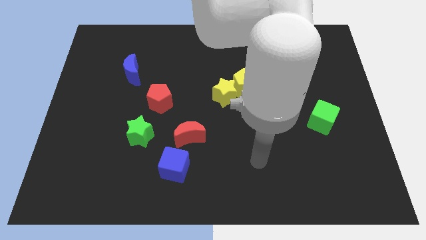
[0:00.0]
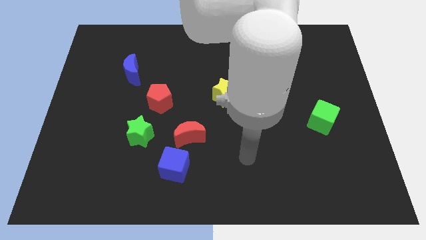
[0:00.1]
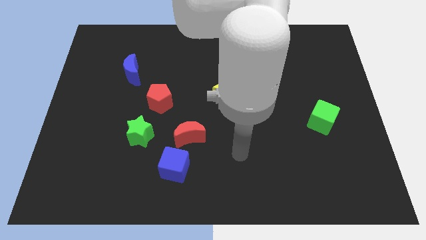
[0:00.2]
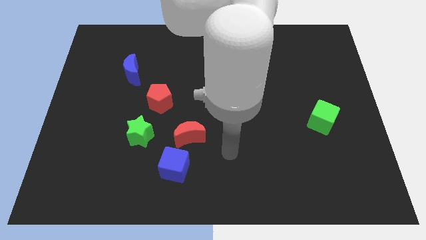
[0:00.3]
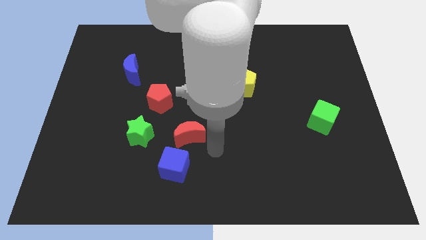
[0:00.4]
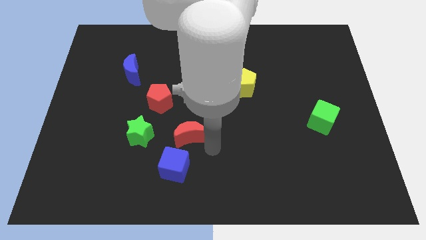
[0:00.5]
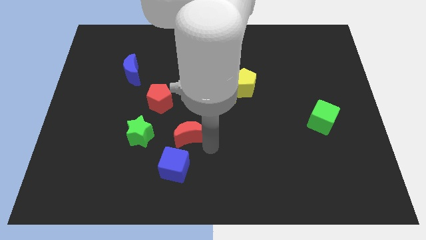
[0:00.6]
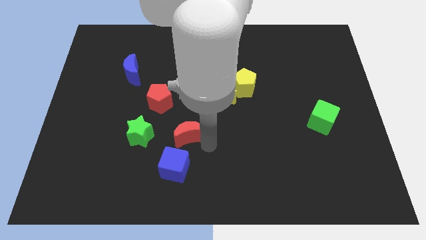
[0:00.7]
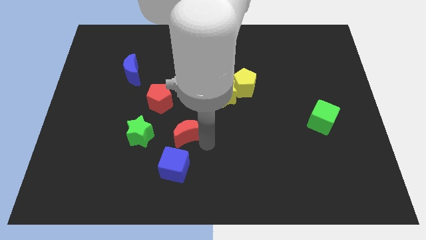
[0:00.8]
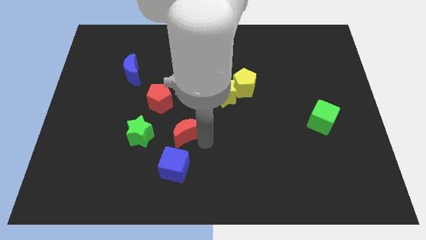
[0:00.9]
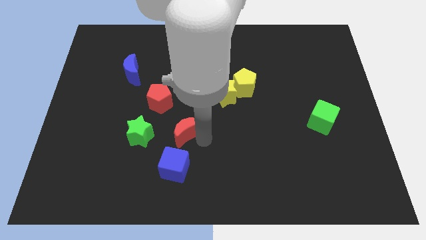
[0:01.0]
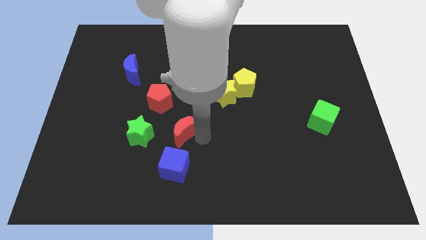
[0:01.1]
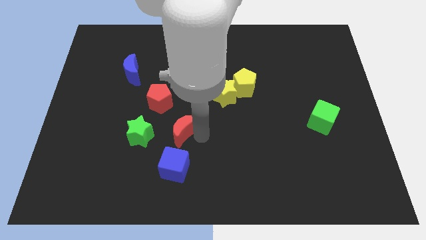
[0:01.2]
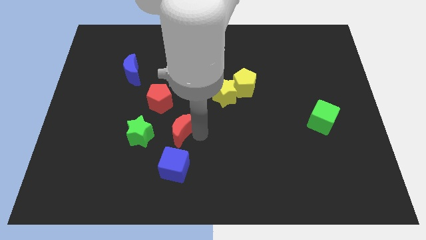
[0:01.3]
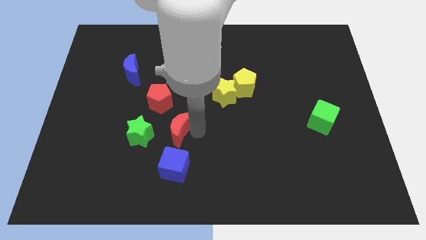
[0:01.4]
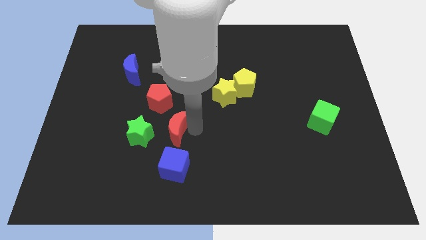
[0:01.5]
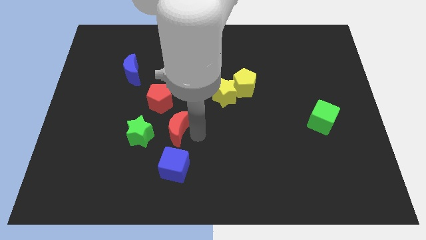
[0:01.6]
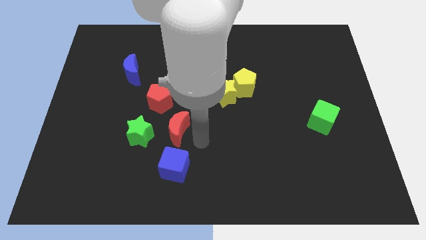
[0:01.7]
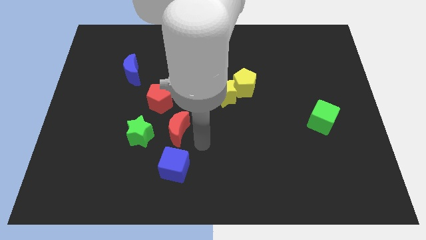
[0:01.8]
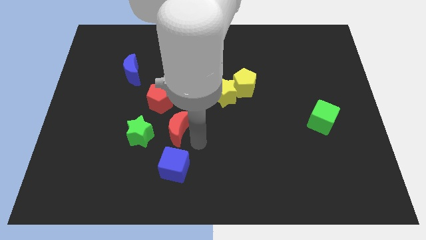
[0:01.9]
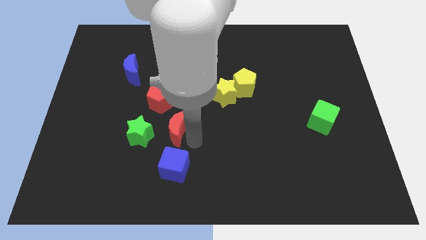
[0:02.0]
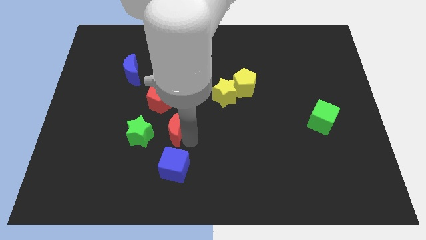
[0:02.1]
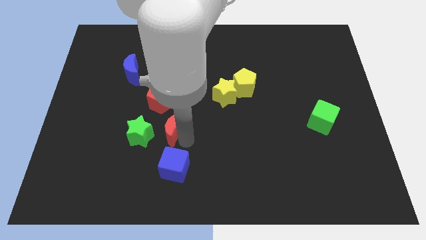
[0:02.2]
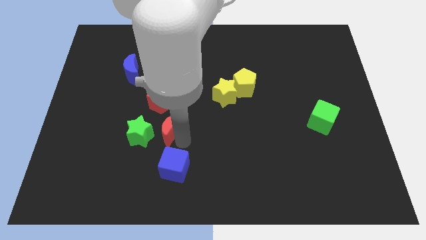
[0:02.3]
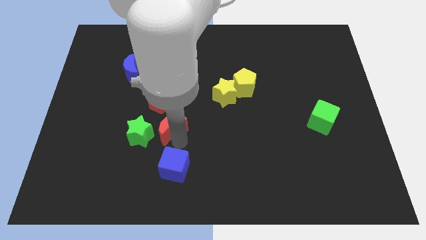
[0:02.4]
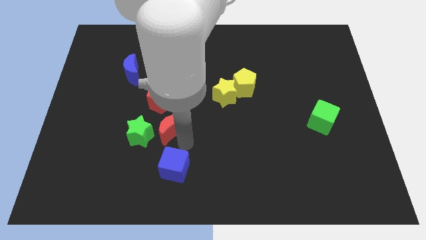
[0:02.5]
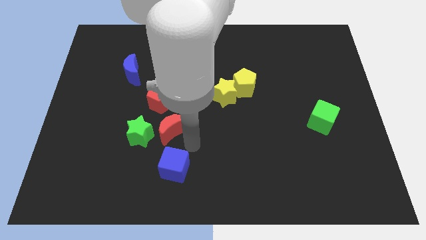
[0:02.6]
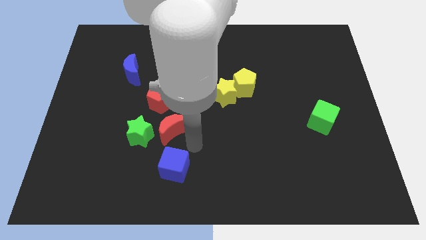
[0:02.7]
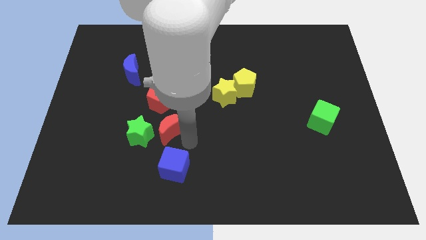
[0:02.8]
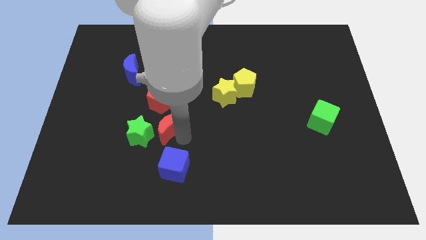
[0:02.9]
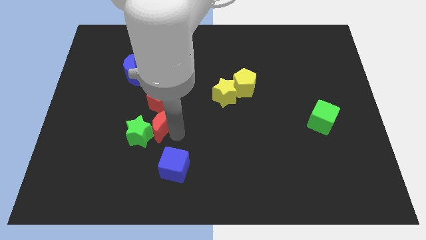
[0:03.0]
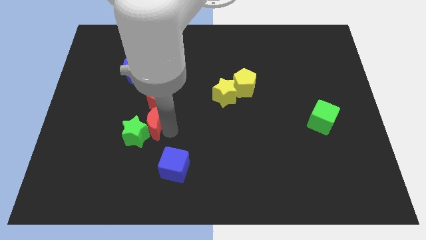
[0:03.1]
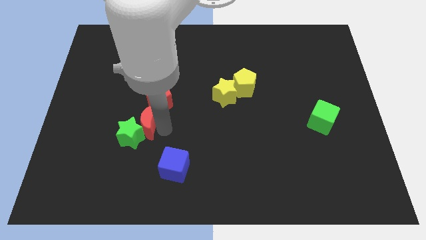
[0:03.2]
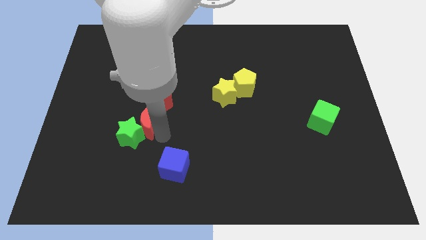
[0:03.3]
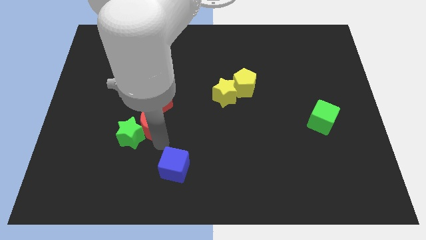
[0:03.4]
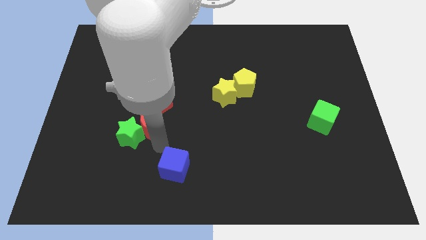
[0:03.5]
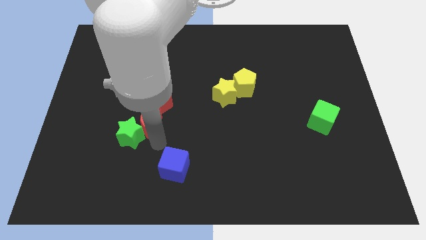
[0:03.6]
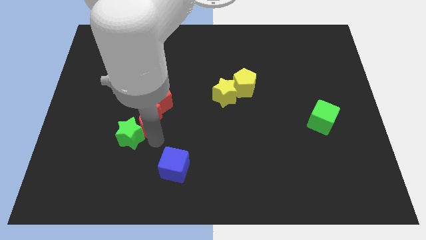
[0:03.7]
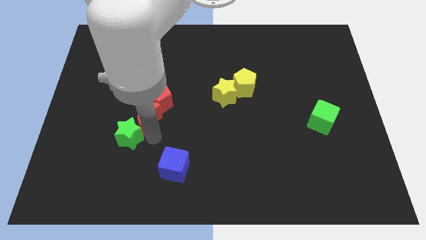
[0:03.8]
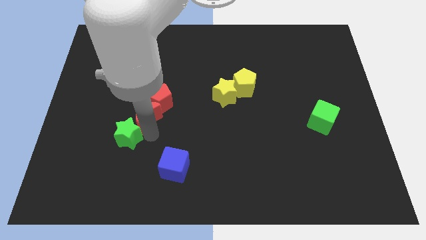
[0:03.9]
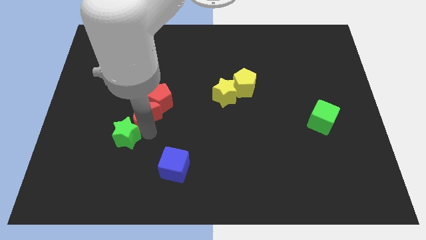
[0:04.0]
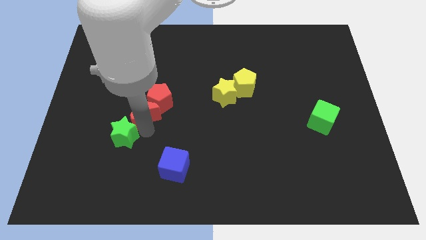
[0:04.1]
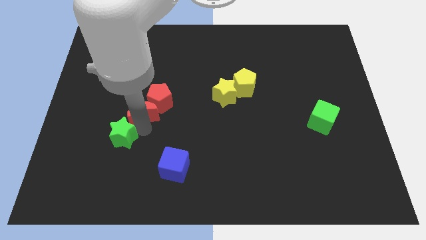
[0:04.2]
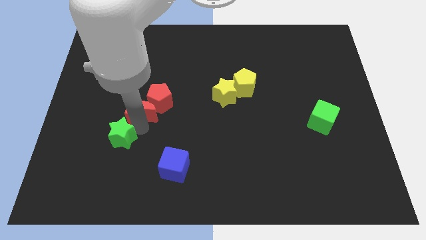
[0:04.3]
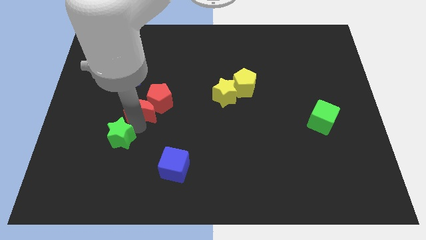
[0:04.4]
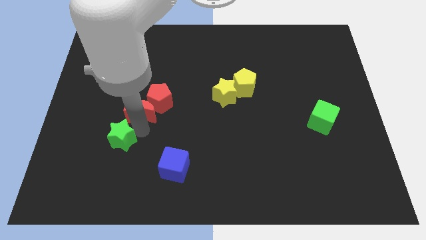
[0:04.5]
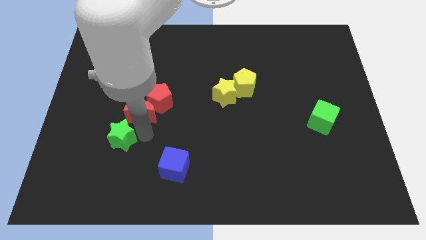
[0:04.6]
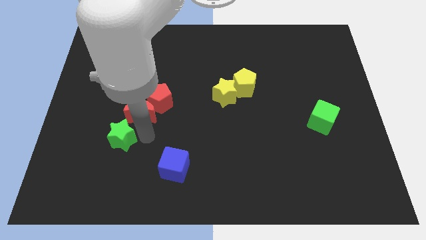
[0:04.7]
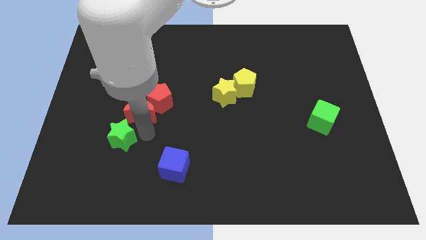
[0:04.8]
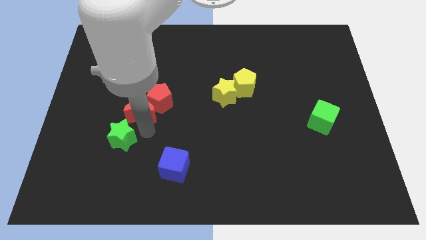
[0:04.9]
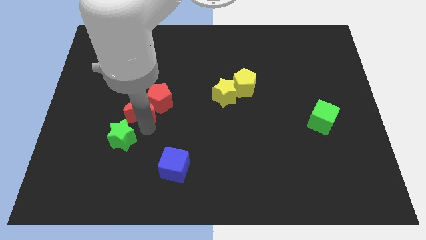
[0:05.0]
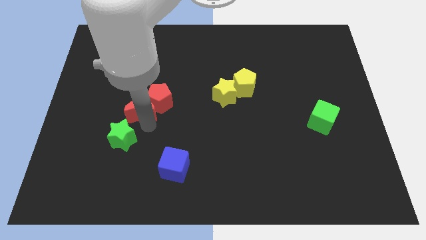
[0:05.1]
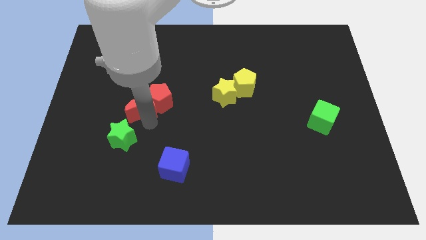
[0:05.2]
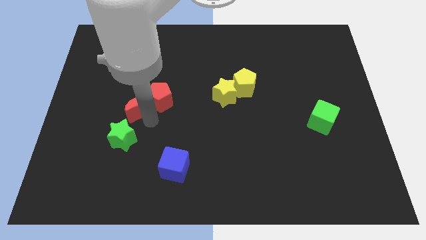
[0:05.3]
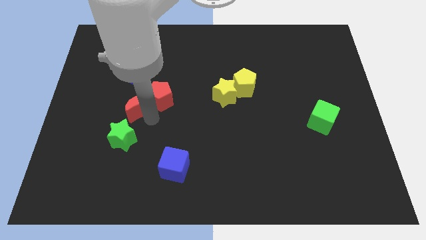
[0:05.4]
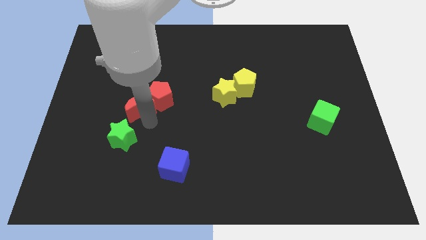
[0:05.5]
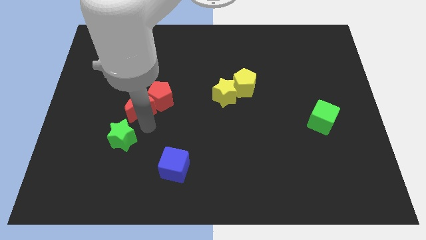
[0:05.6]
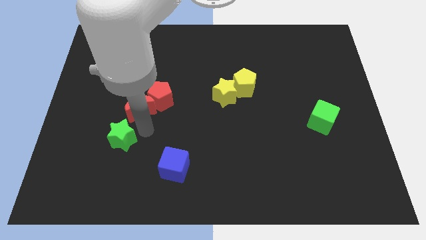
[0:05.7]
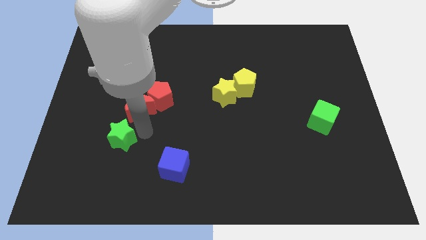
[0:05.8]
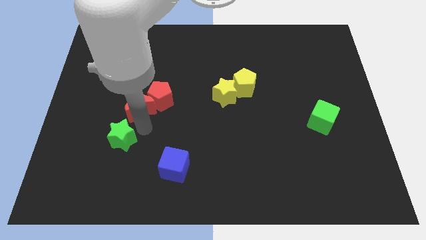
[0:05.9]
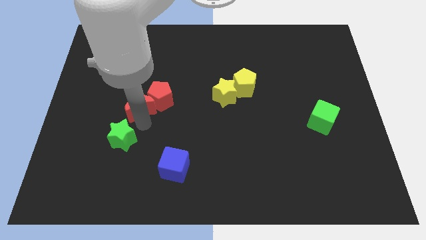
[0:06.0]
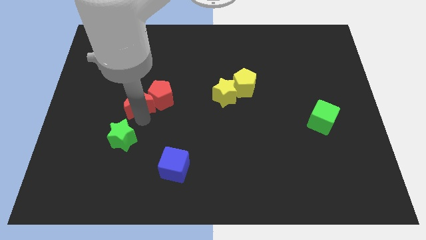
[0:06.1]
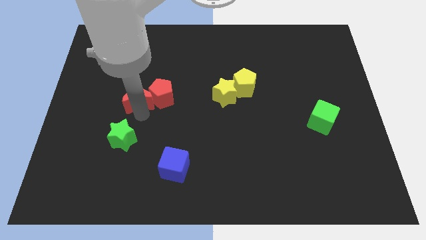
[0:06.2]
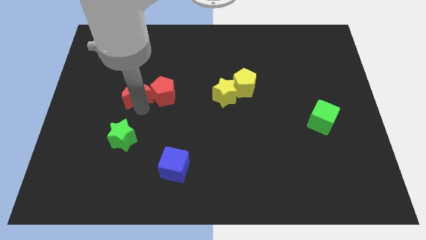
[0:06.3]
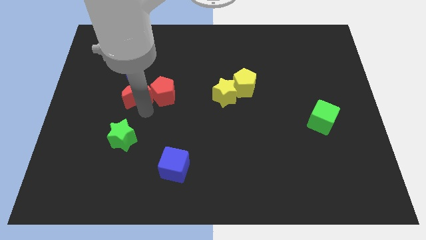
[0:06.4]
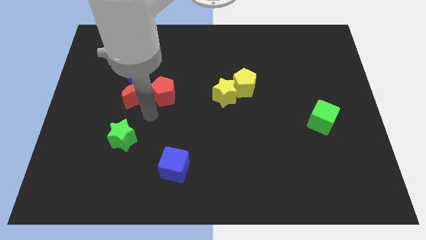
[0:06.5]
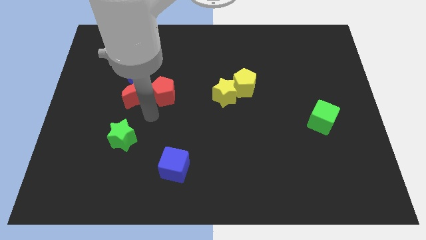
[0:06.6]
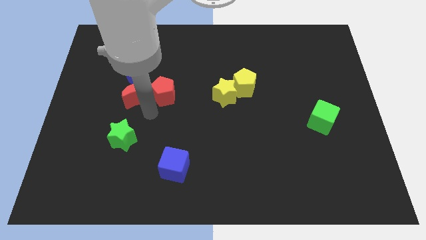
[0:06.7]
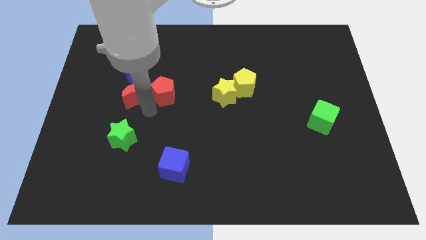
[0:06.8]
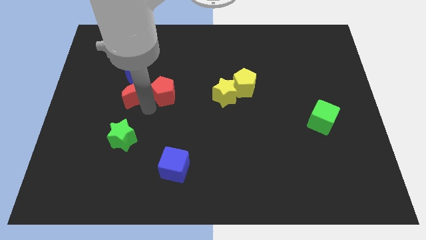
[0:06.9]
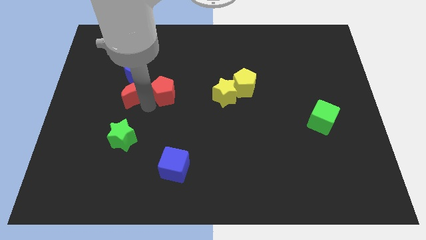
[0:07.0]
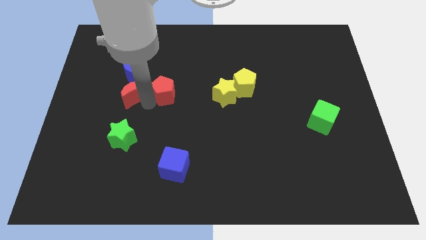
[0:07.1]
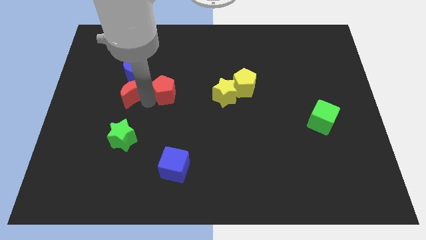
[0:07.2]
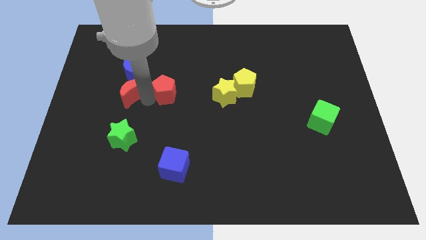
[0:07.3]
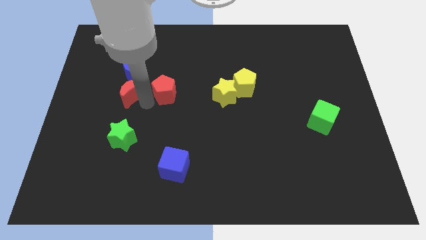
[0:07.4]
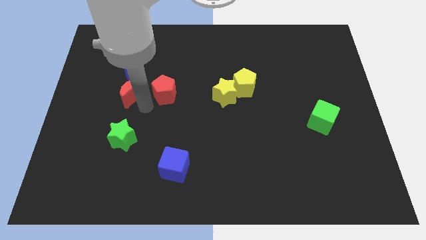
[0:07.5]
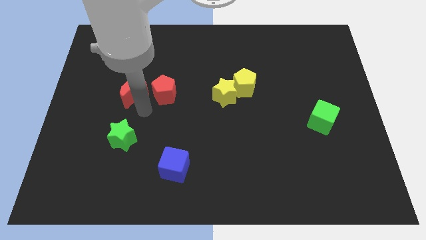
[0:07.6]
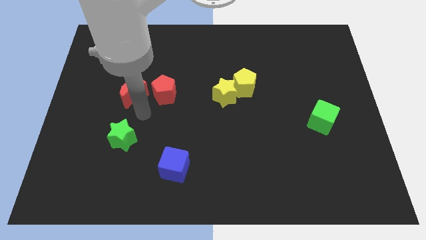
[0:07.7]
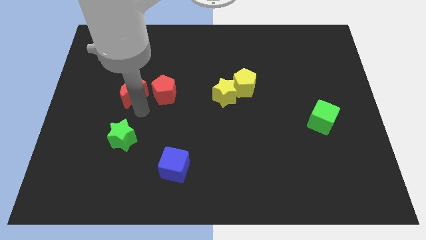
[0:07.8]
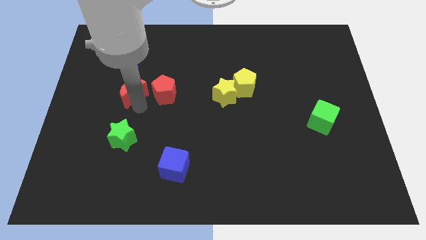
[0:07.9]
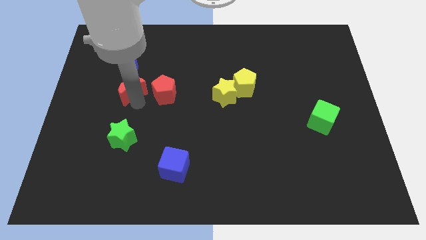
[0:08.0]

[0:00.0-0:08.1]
put the red moon towards the blue moon

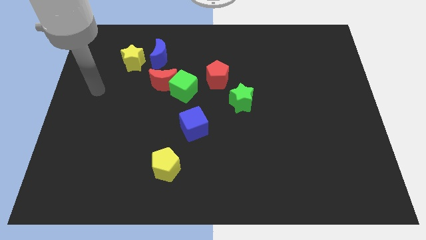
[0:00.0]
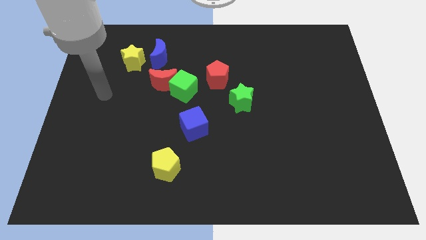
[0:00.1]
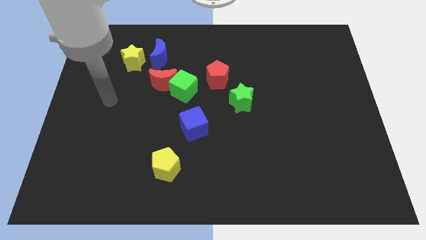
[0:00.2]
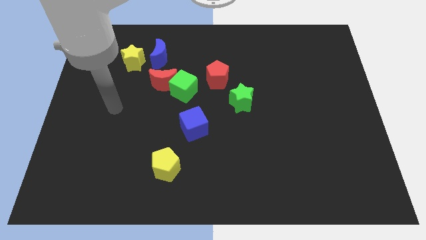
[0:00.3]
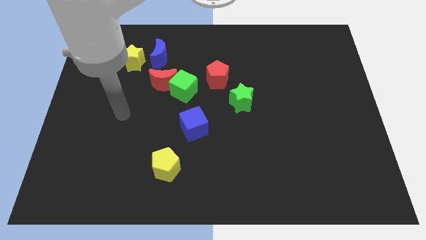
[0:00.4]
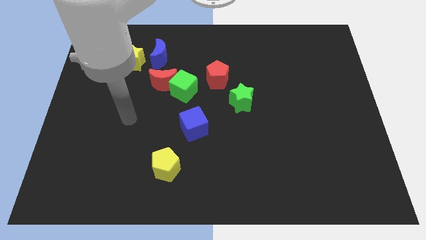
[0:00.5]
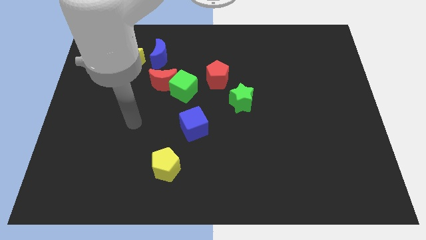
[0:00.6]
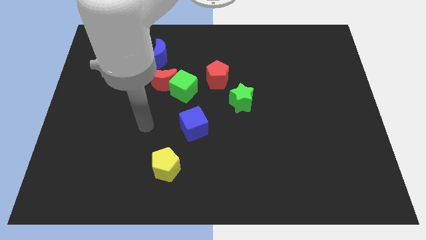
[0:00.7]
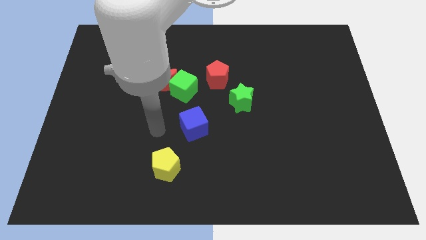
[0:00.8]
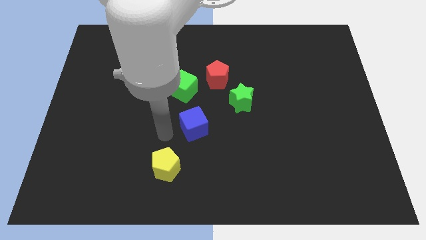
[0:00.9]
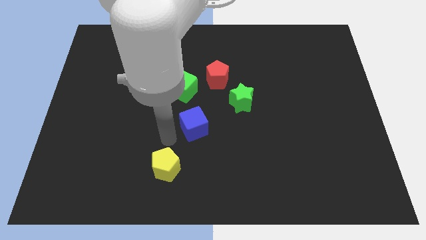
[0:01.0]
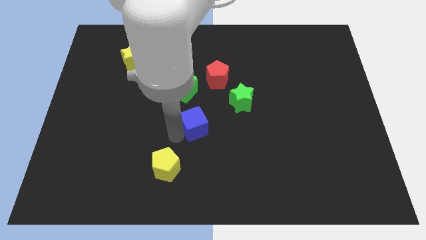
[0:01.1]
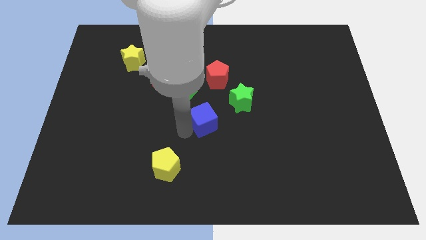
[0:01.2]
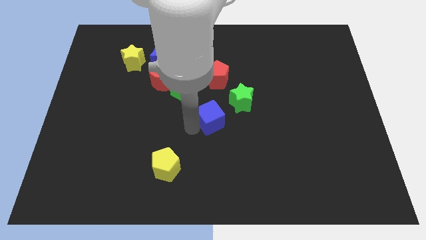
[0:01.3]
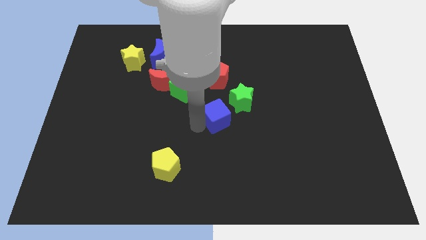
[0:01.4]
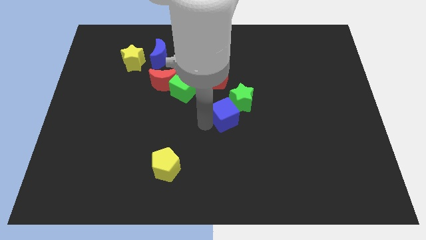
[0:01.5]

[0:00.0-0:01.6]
slide the blue cube to the green star
